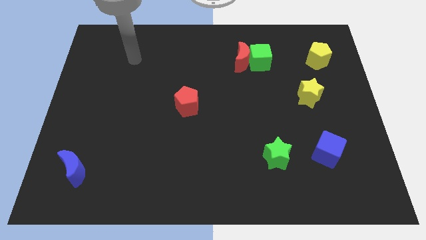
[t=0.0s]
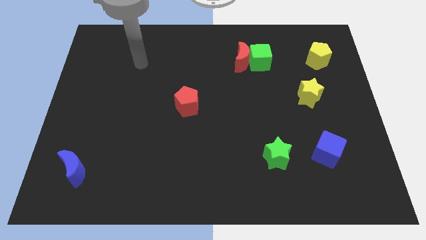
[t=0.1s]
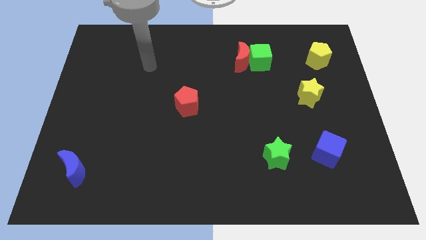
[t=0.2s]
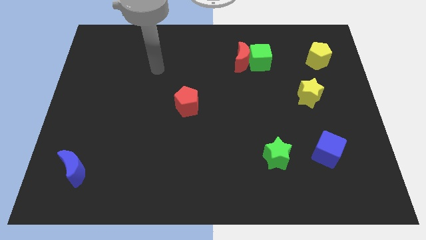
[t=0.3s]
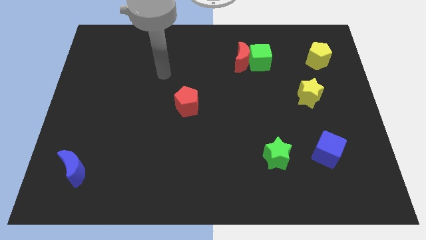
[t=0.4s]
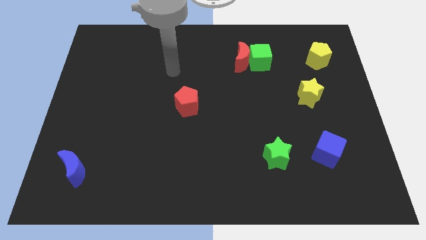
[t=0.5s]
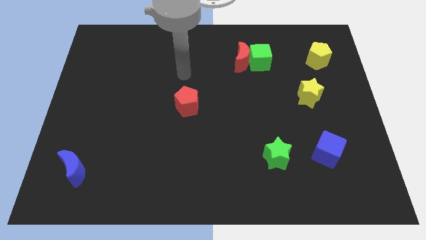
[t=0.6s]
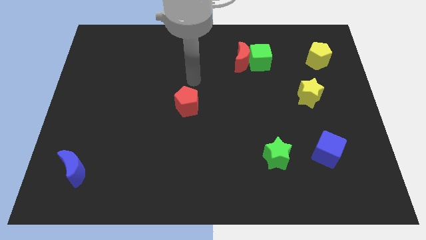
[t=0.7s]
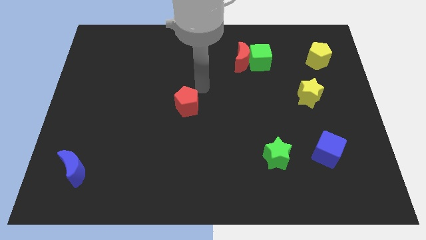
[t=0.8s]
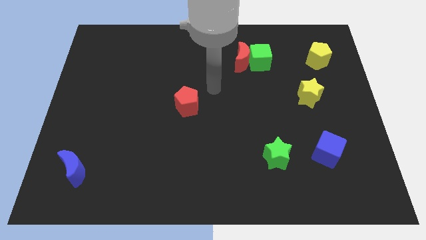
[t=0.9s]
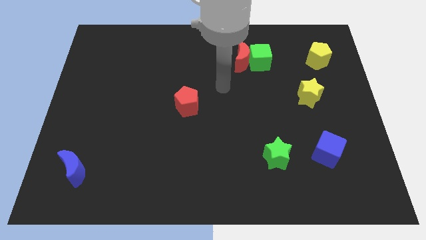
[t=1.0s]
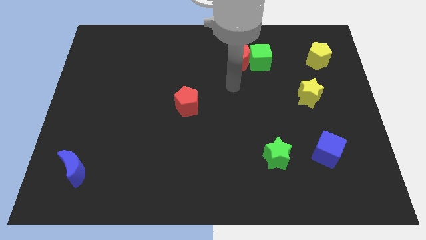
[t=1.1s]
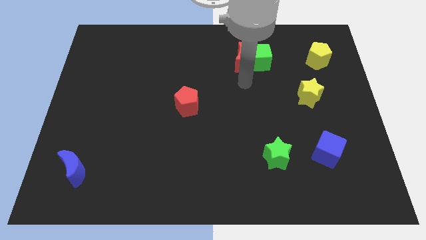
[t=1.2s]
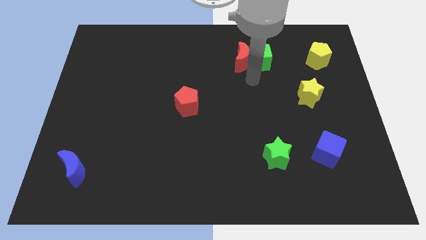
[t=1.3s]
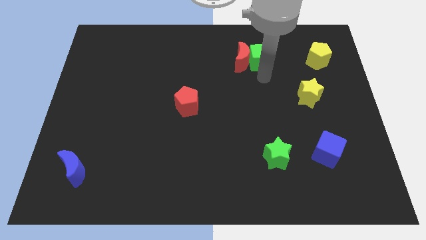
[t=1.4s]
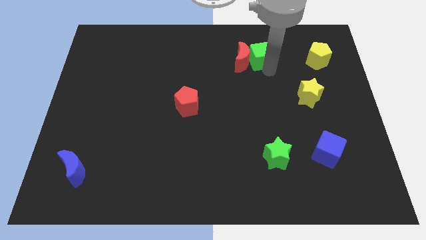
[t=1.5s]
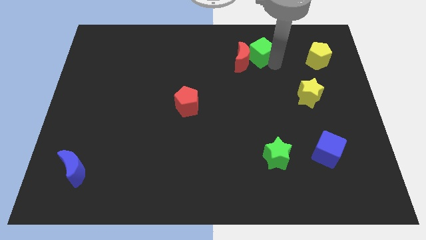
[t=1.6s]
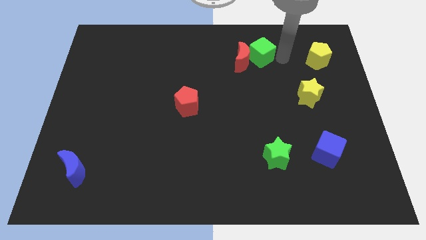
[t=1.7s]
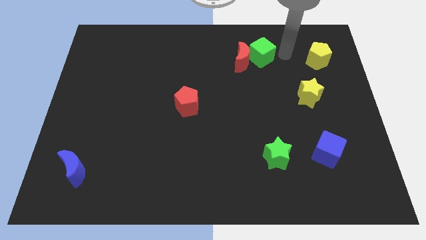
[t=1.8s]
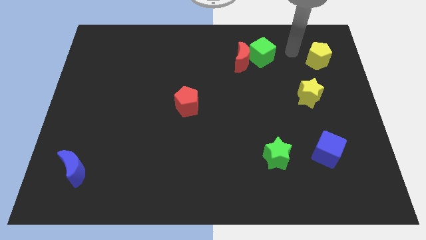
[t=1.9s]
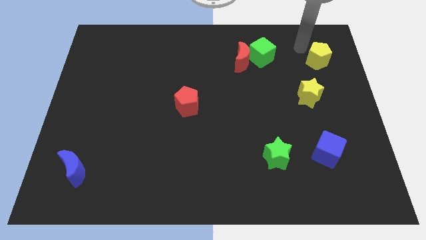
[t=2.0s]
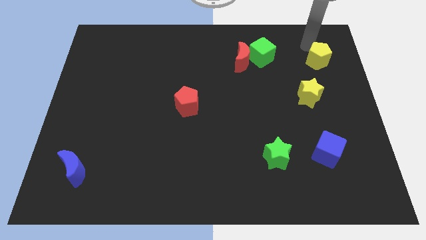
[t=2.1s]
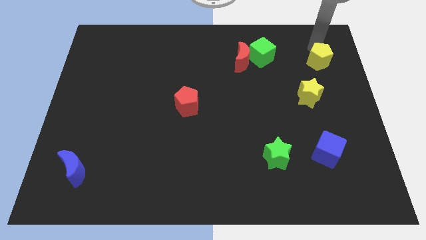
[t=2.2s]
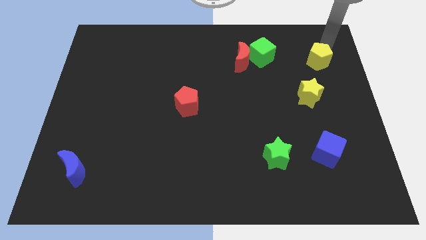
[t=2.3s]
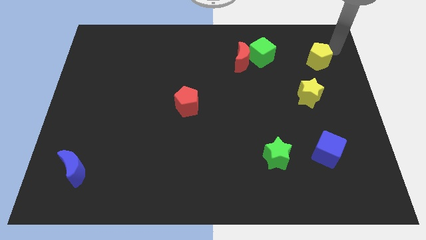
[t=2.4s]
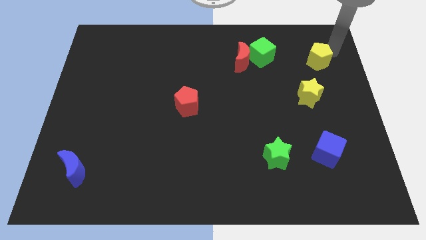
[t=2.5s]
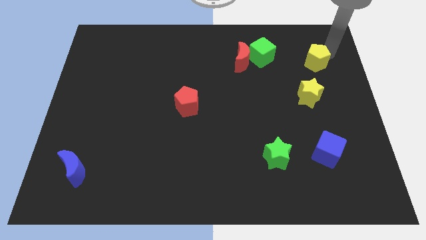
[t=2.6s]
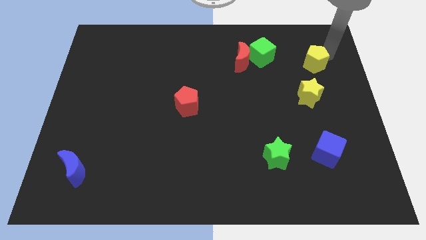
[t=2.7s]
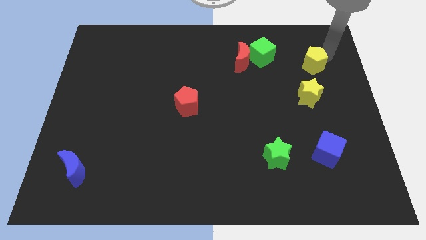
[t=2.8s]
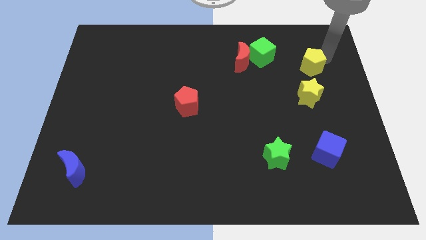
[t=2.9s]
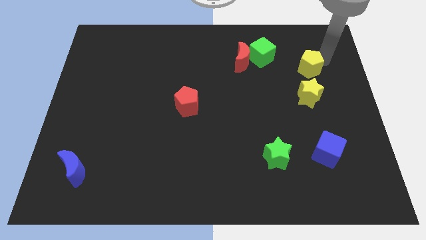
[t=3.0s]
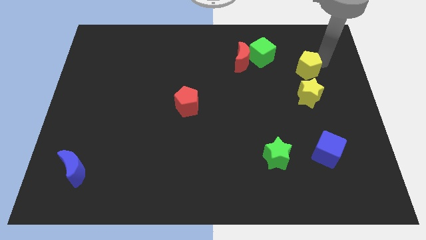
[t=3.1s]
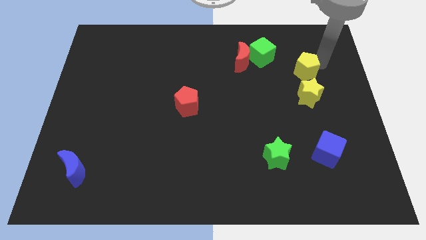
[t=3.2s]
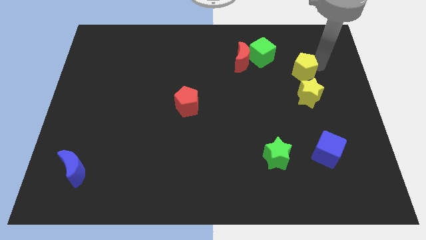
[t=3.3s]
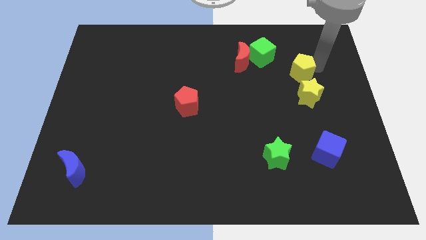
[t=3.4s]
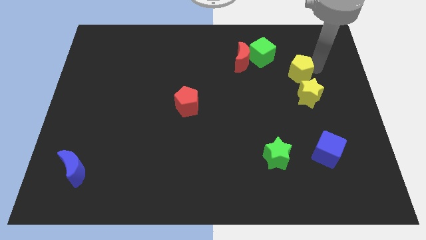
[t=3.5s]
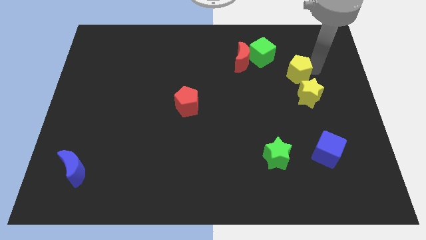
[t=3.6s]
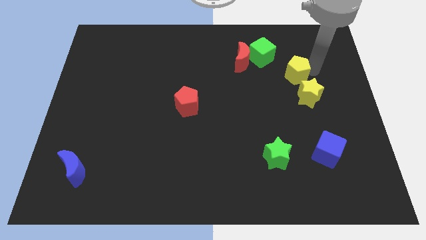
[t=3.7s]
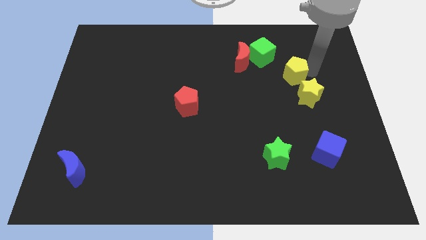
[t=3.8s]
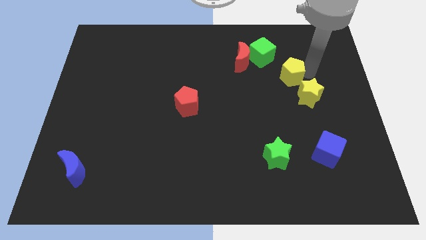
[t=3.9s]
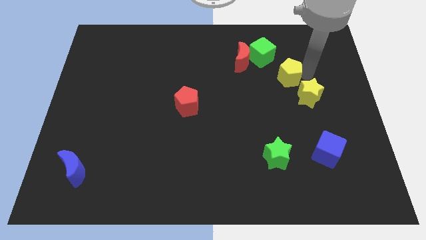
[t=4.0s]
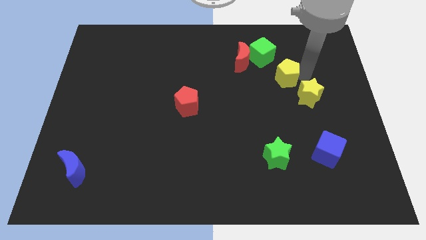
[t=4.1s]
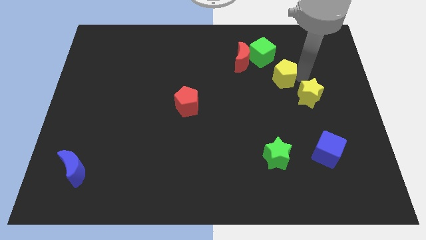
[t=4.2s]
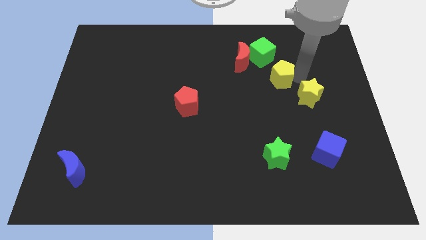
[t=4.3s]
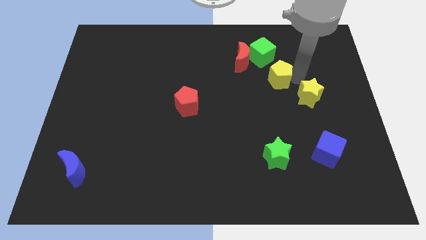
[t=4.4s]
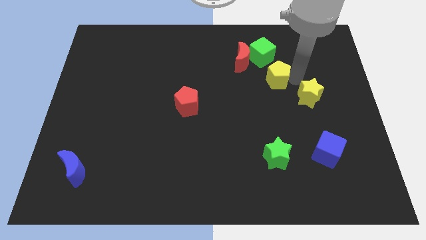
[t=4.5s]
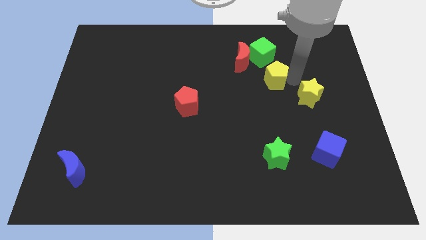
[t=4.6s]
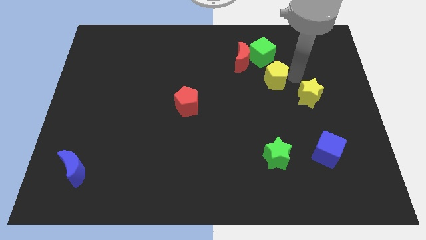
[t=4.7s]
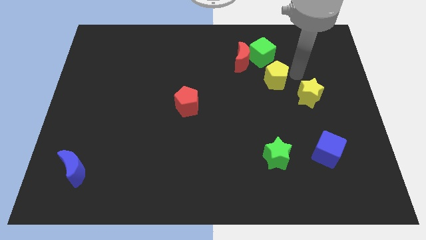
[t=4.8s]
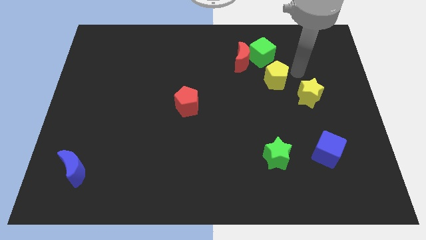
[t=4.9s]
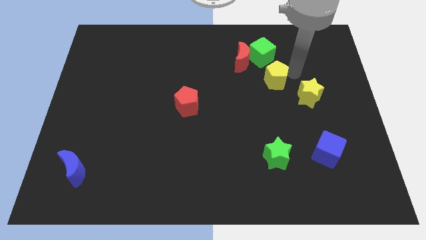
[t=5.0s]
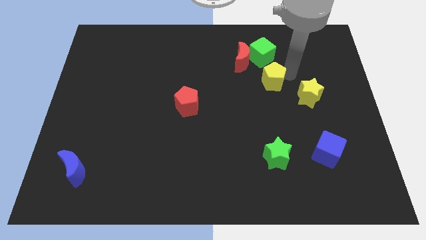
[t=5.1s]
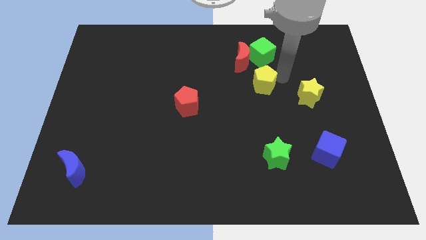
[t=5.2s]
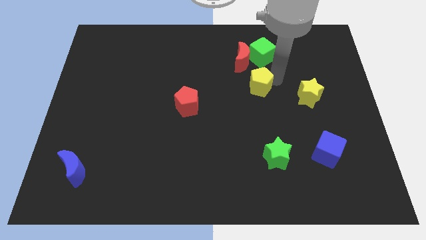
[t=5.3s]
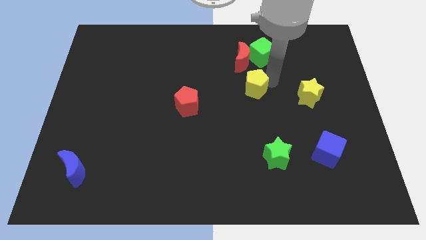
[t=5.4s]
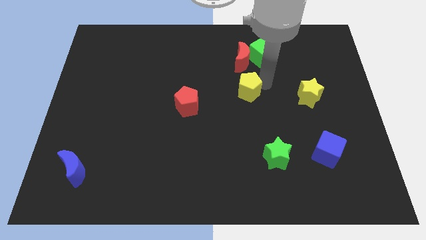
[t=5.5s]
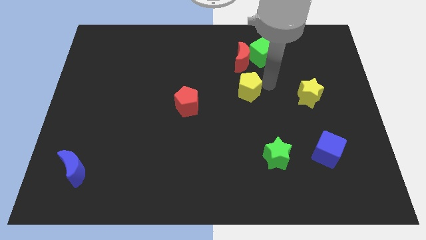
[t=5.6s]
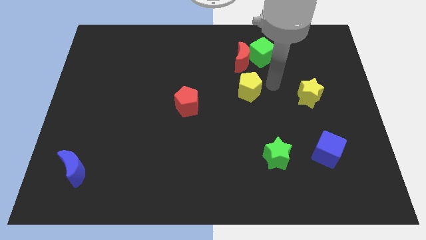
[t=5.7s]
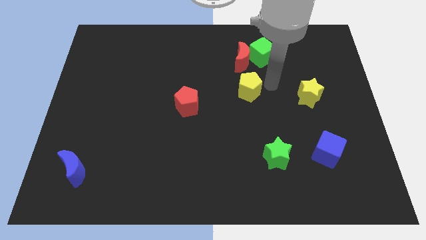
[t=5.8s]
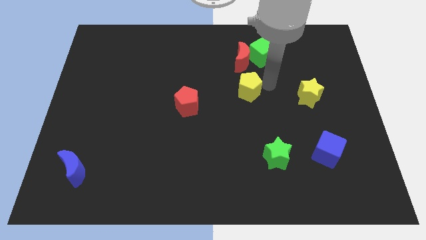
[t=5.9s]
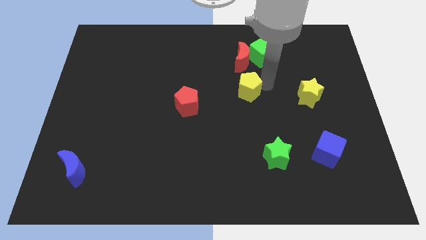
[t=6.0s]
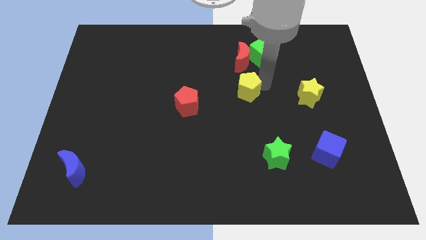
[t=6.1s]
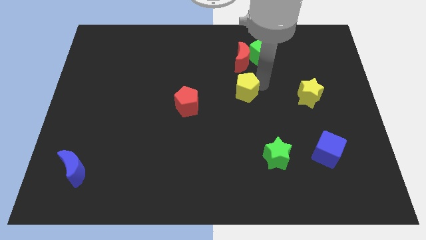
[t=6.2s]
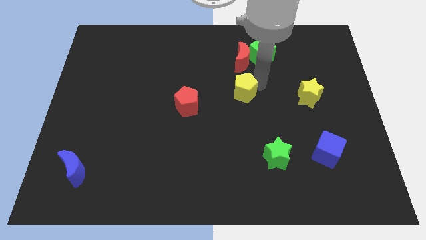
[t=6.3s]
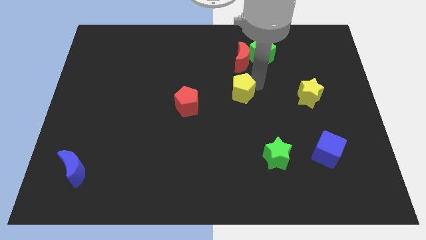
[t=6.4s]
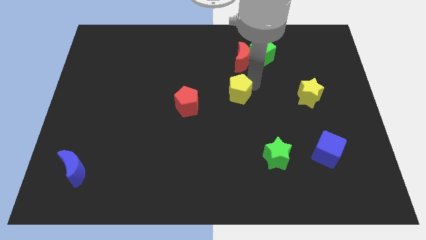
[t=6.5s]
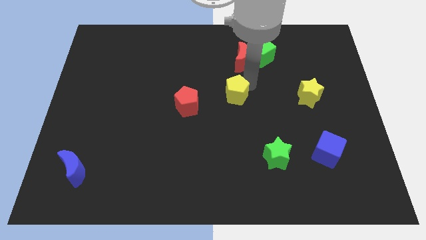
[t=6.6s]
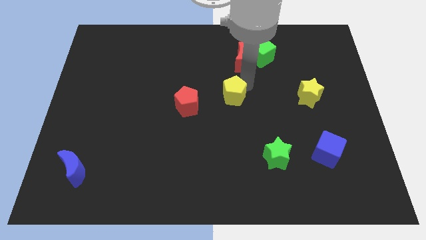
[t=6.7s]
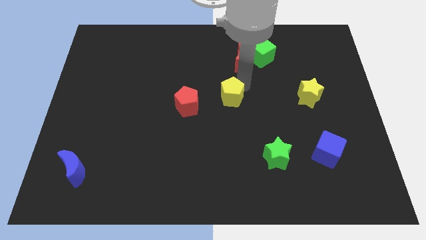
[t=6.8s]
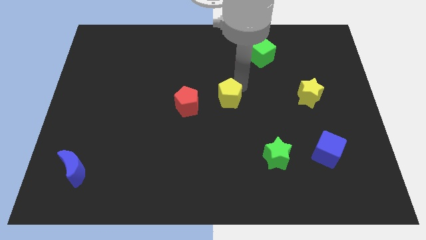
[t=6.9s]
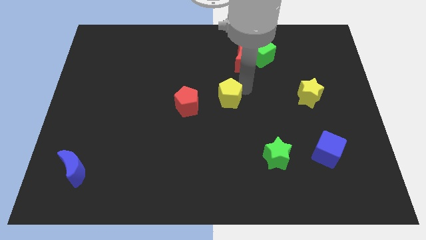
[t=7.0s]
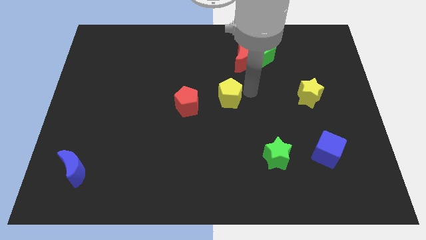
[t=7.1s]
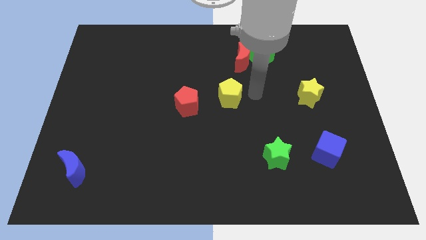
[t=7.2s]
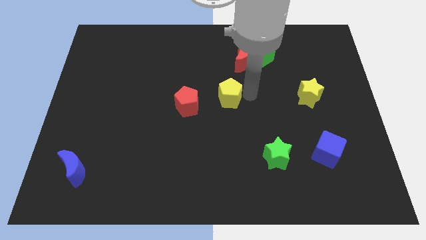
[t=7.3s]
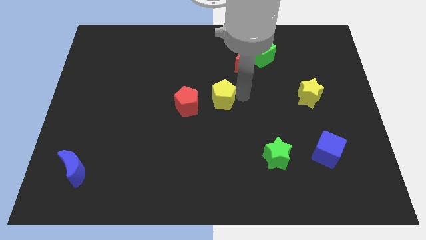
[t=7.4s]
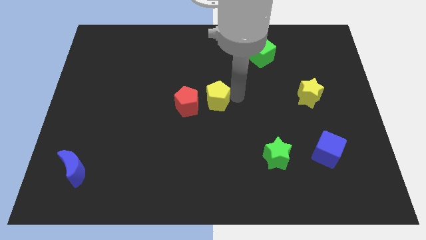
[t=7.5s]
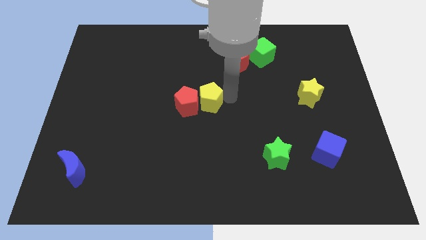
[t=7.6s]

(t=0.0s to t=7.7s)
push the yellow pentagon towards the red pentagon
